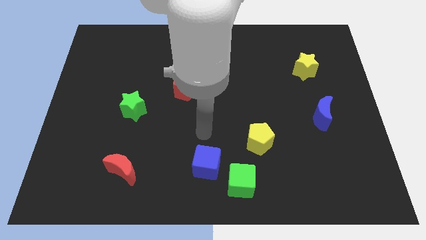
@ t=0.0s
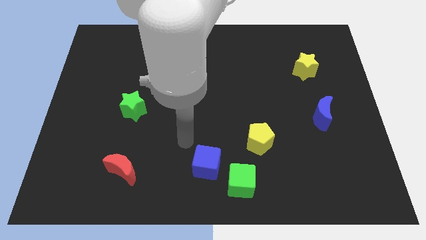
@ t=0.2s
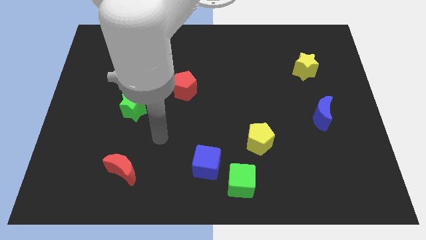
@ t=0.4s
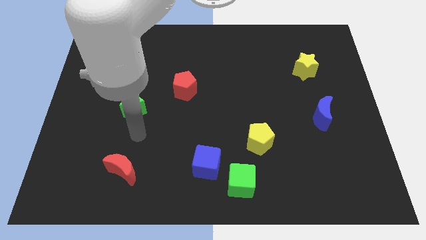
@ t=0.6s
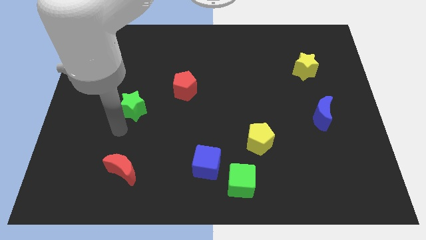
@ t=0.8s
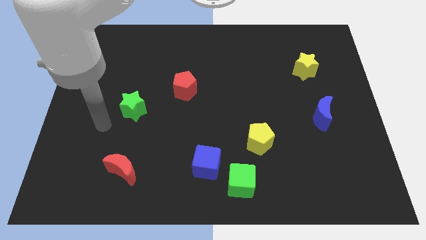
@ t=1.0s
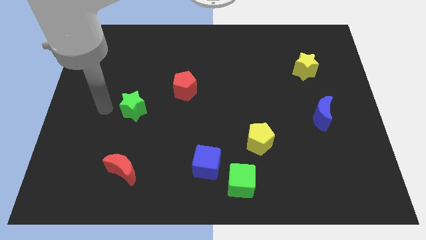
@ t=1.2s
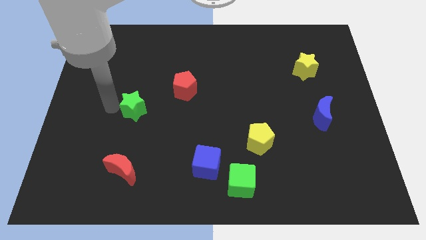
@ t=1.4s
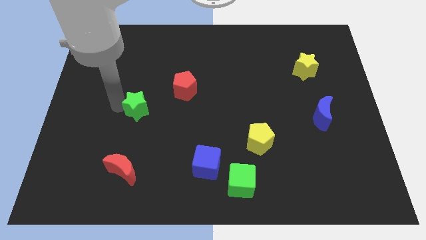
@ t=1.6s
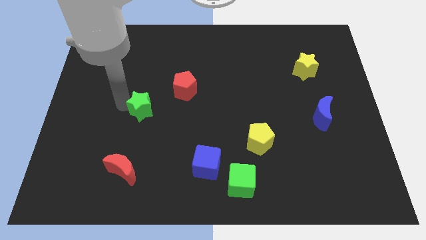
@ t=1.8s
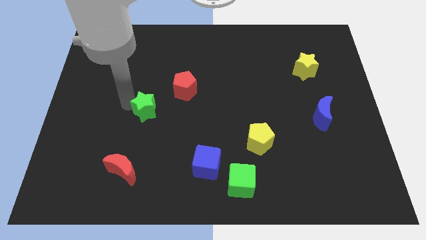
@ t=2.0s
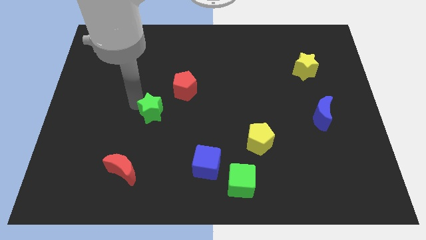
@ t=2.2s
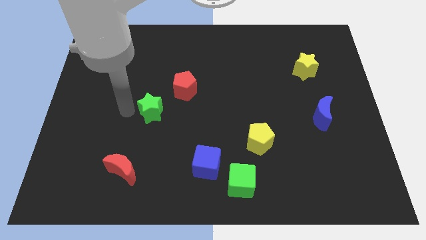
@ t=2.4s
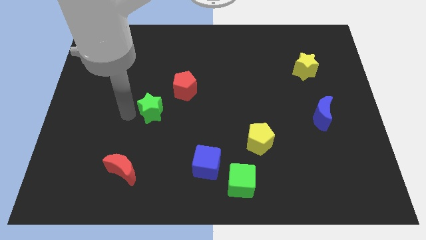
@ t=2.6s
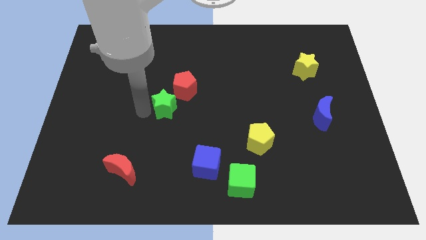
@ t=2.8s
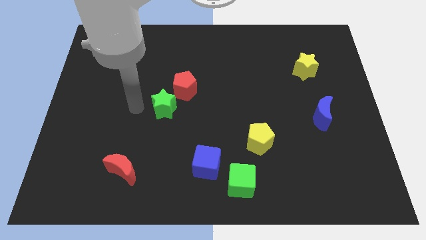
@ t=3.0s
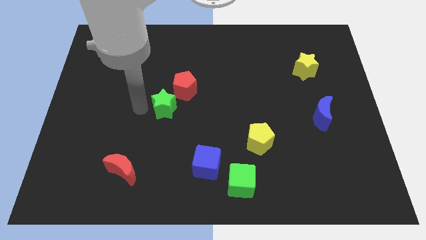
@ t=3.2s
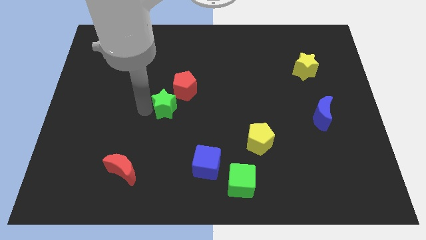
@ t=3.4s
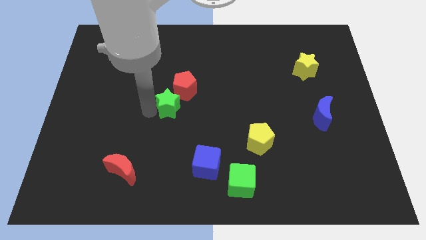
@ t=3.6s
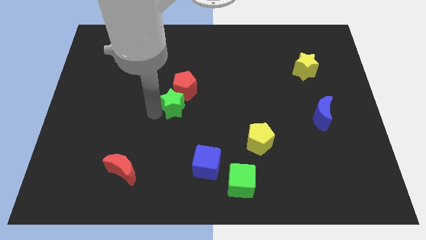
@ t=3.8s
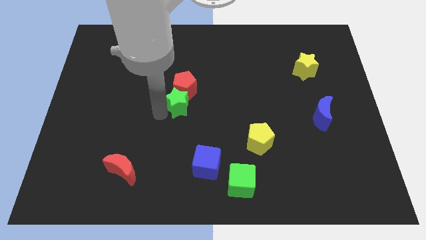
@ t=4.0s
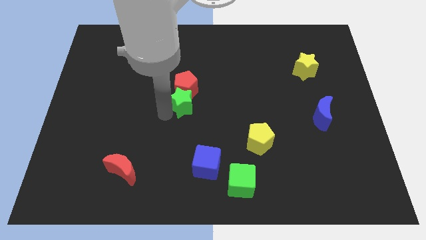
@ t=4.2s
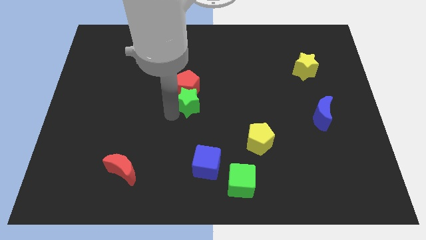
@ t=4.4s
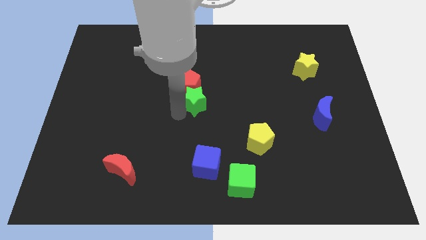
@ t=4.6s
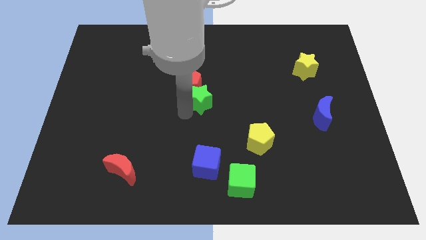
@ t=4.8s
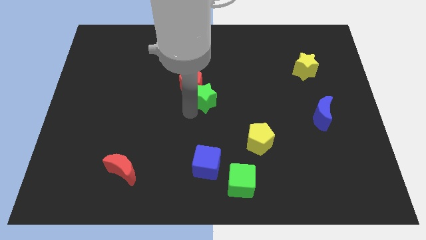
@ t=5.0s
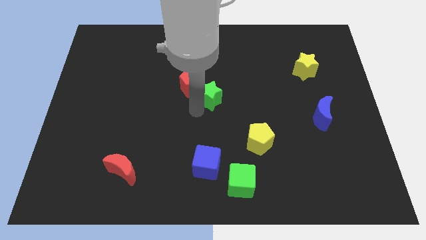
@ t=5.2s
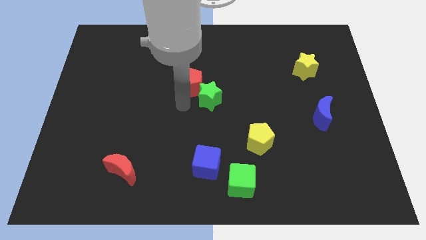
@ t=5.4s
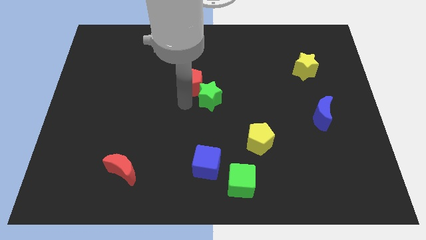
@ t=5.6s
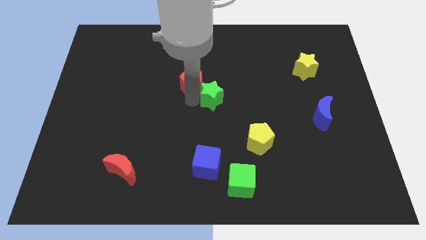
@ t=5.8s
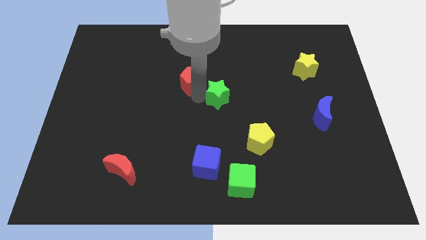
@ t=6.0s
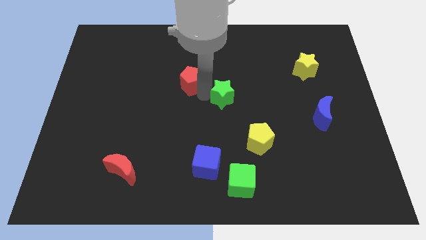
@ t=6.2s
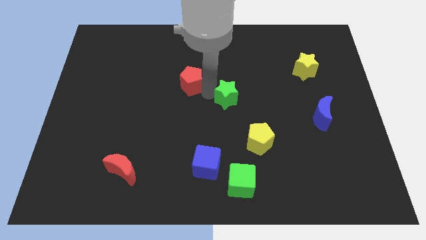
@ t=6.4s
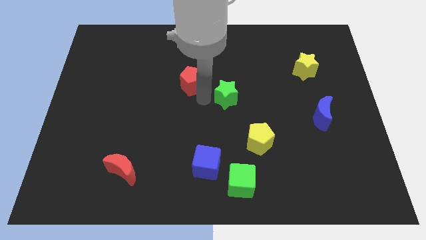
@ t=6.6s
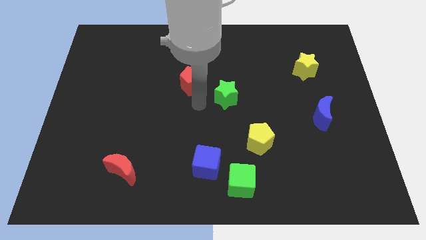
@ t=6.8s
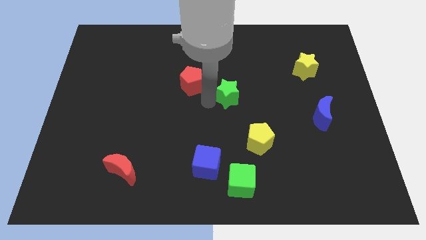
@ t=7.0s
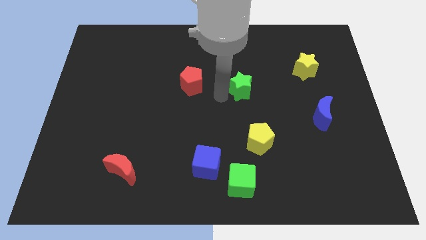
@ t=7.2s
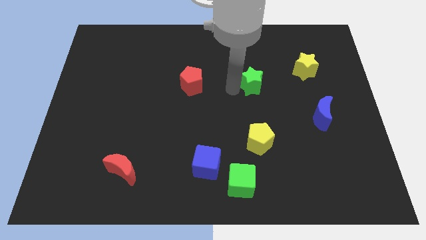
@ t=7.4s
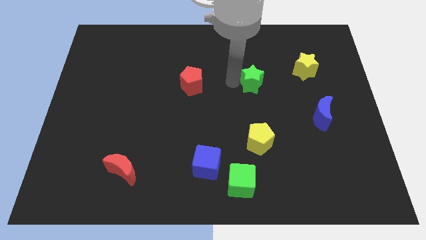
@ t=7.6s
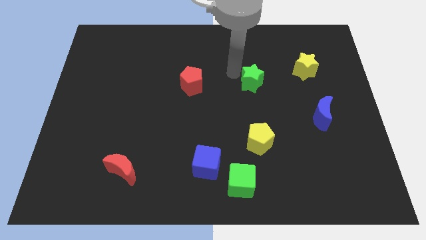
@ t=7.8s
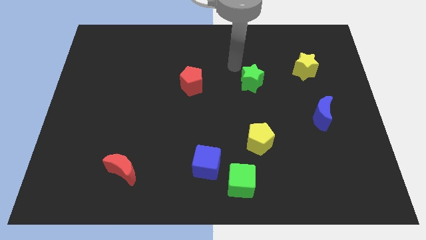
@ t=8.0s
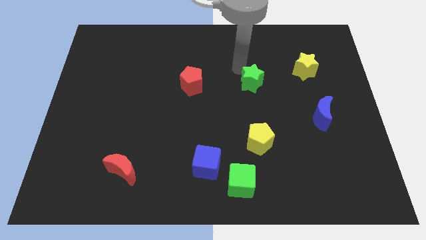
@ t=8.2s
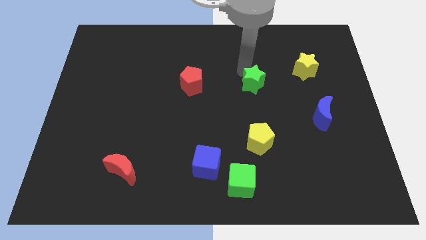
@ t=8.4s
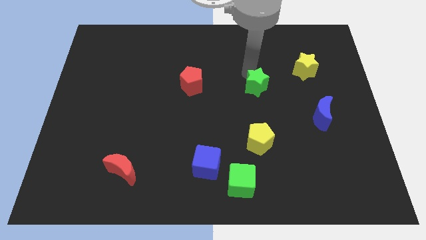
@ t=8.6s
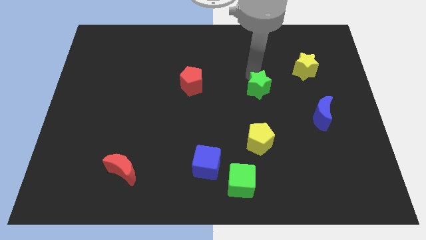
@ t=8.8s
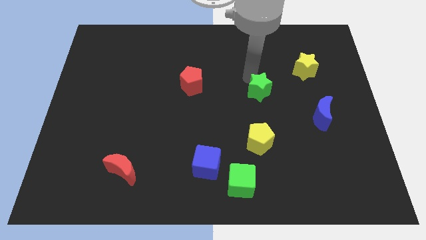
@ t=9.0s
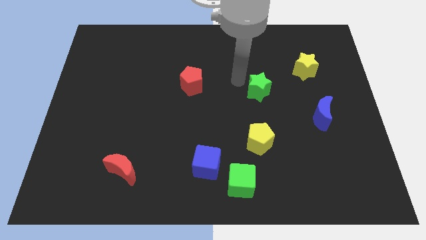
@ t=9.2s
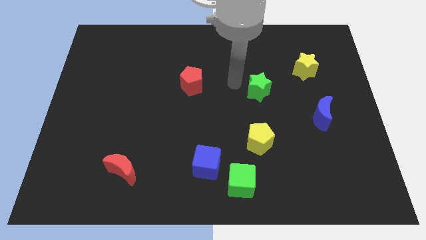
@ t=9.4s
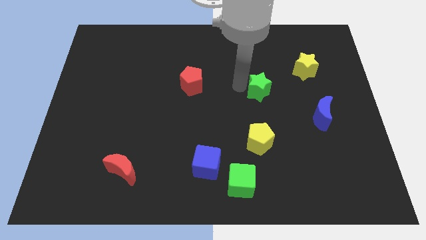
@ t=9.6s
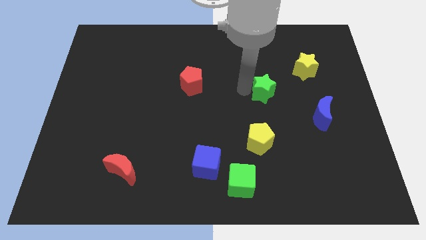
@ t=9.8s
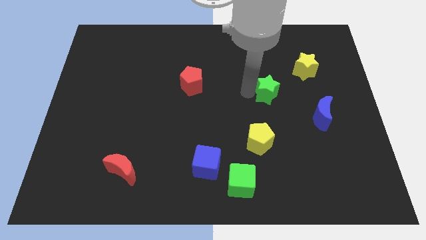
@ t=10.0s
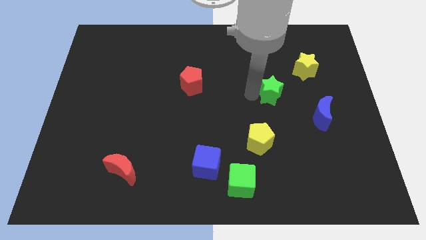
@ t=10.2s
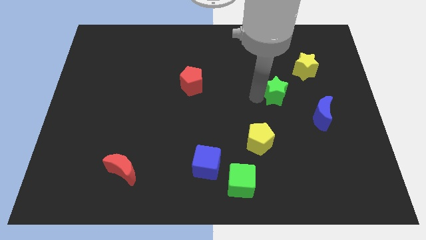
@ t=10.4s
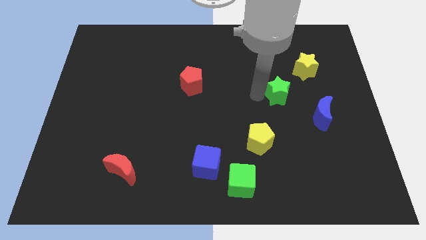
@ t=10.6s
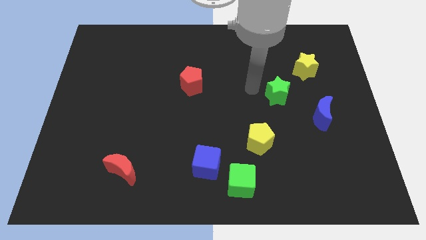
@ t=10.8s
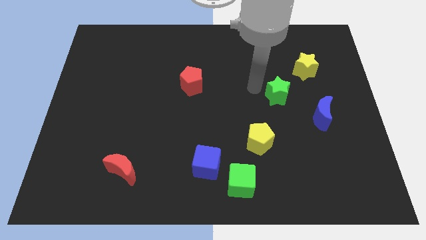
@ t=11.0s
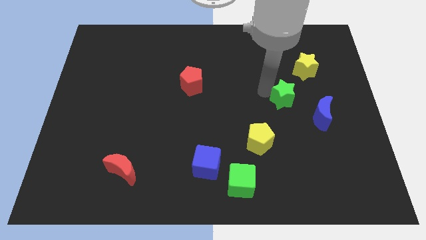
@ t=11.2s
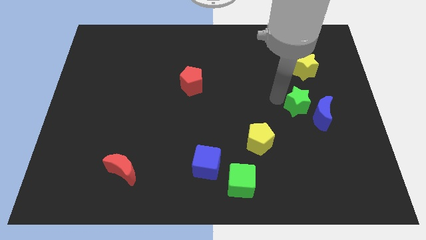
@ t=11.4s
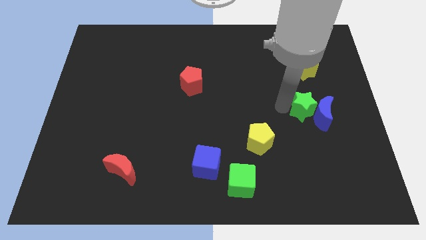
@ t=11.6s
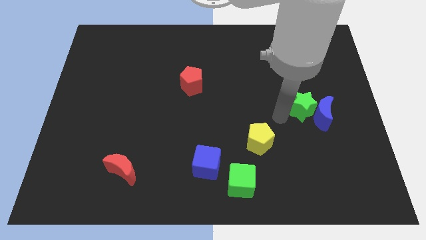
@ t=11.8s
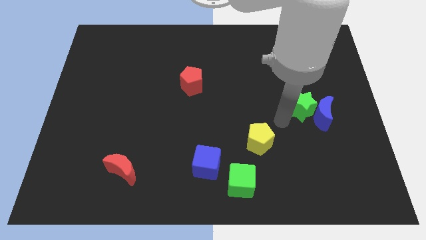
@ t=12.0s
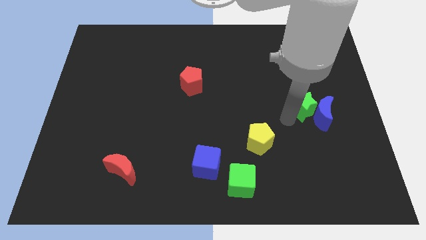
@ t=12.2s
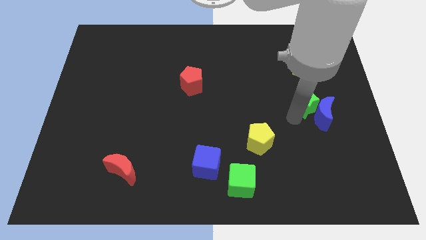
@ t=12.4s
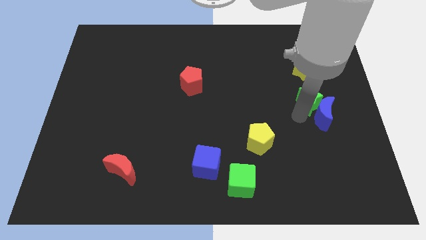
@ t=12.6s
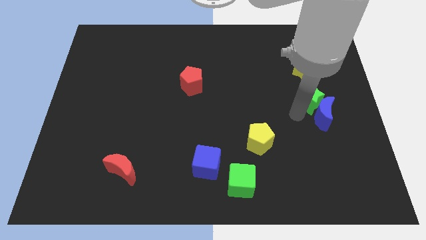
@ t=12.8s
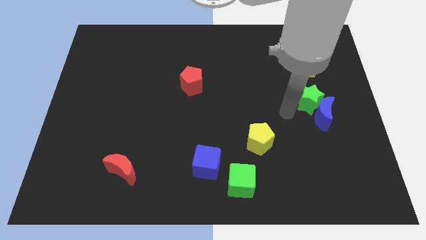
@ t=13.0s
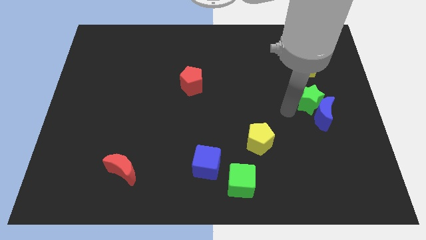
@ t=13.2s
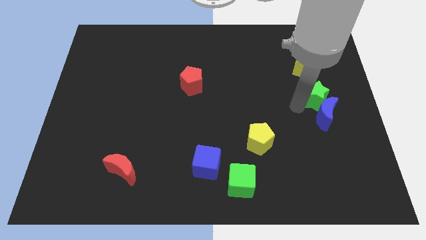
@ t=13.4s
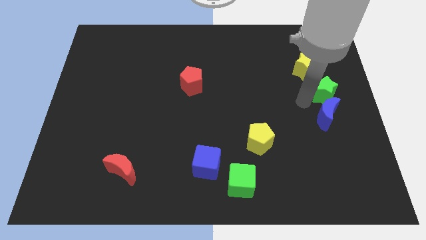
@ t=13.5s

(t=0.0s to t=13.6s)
push the green star to the right side
